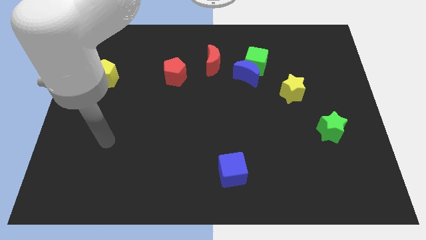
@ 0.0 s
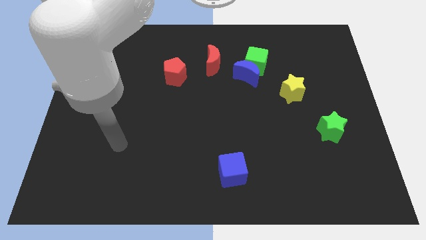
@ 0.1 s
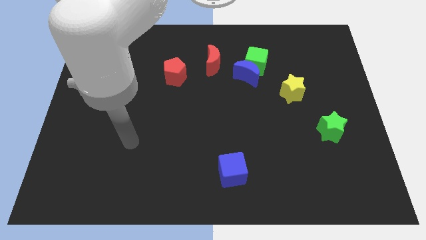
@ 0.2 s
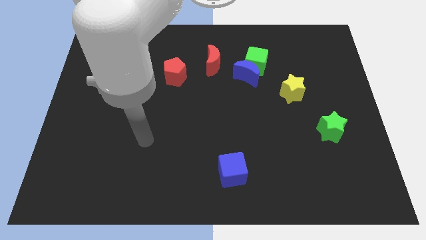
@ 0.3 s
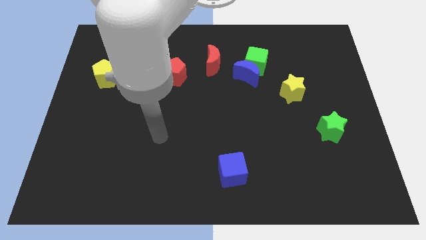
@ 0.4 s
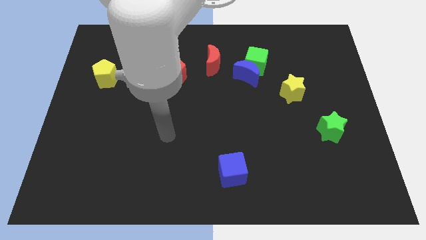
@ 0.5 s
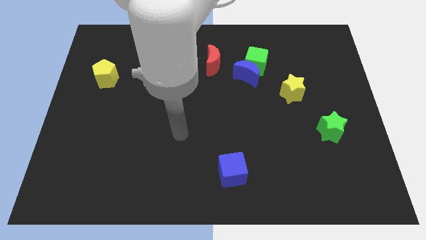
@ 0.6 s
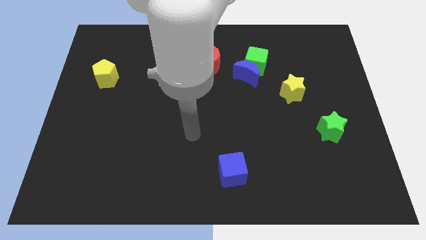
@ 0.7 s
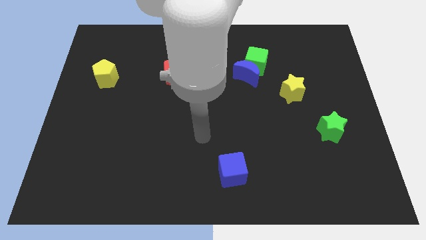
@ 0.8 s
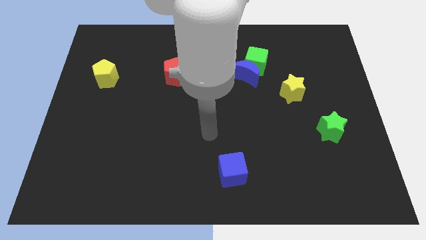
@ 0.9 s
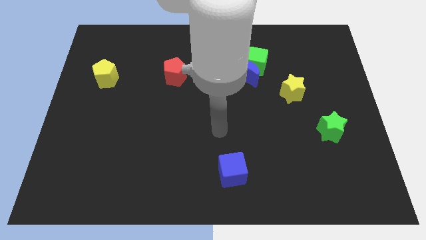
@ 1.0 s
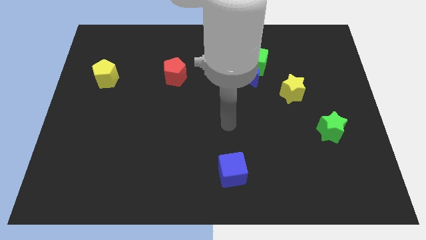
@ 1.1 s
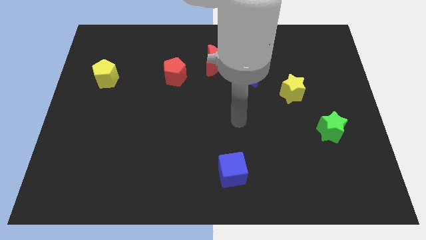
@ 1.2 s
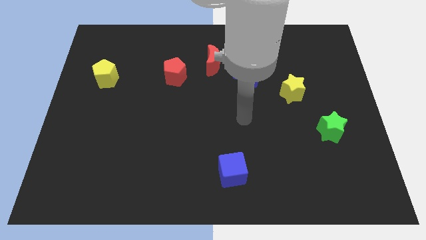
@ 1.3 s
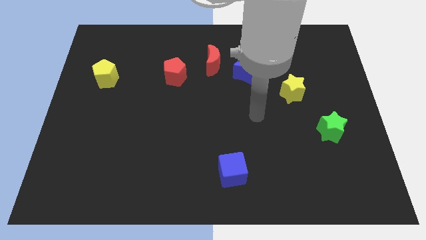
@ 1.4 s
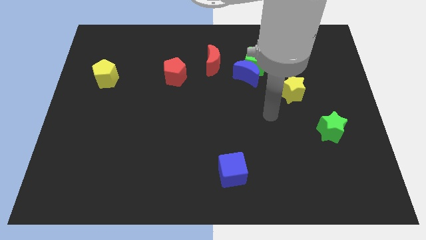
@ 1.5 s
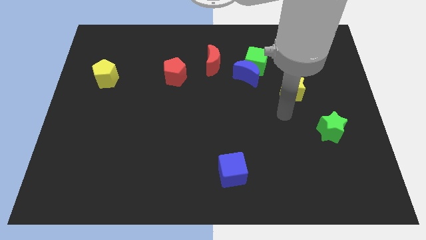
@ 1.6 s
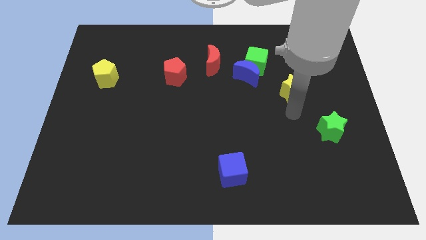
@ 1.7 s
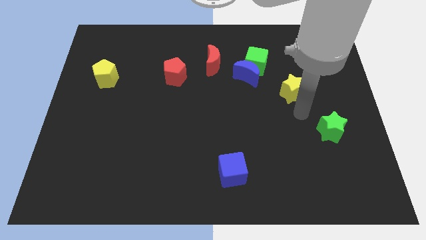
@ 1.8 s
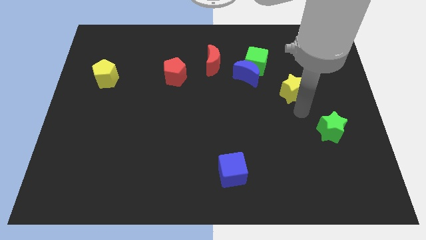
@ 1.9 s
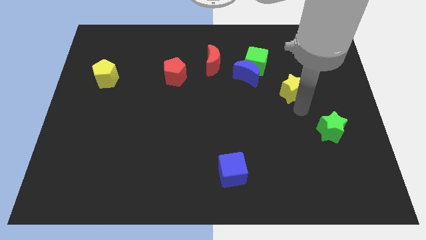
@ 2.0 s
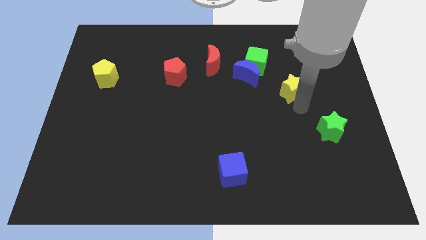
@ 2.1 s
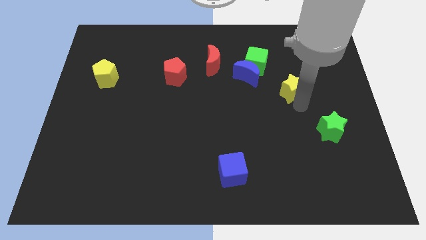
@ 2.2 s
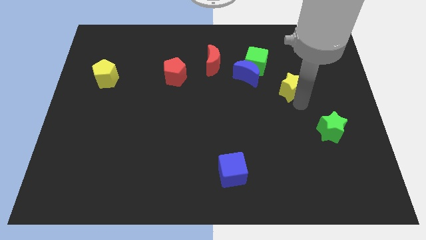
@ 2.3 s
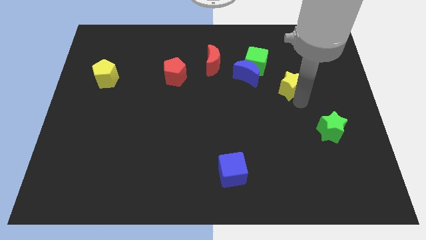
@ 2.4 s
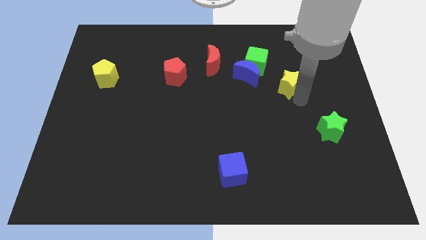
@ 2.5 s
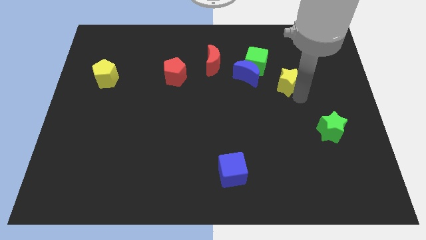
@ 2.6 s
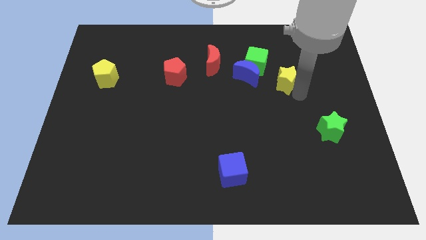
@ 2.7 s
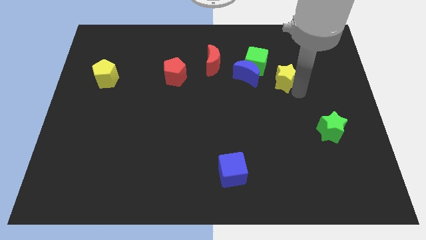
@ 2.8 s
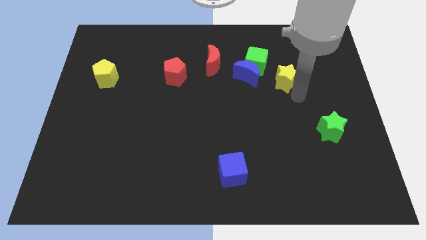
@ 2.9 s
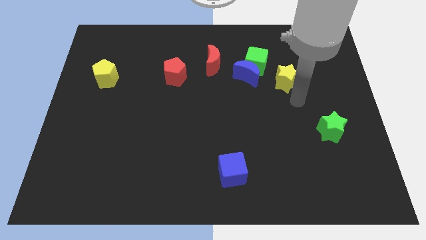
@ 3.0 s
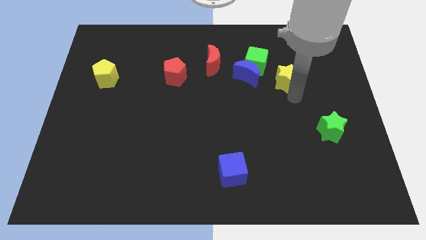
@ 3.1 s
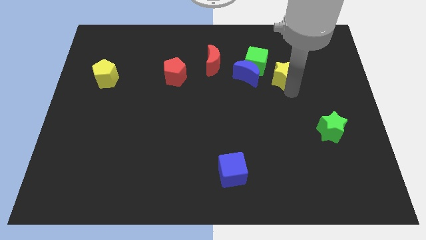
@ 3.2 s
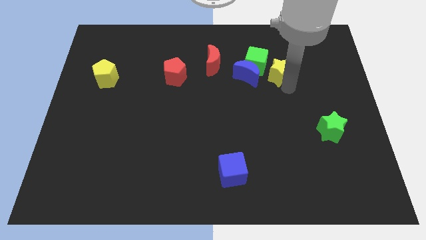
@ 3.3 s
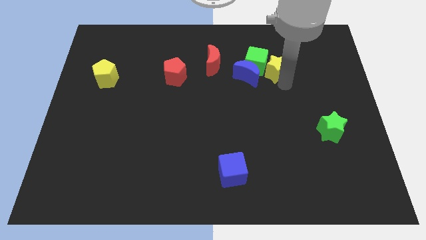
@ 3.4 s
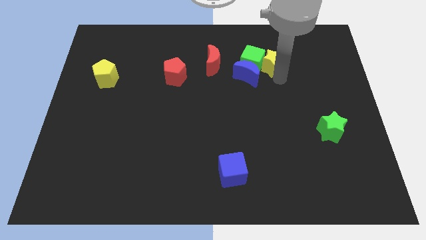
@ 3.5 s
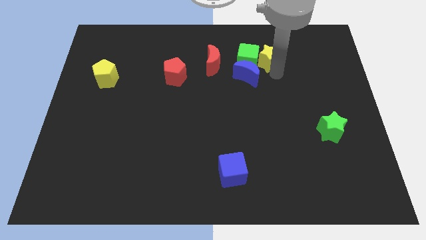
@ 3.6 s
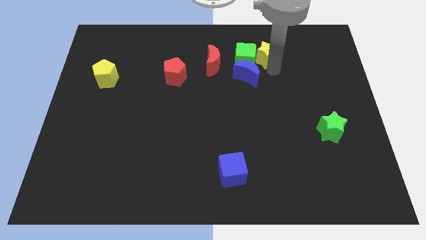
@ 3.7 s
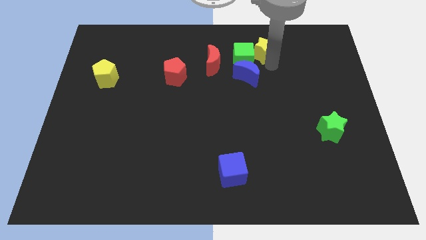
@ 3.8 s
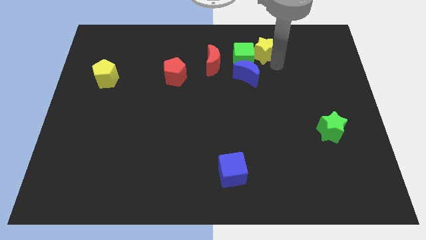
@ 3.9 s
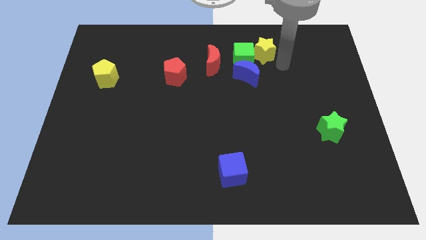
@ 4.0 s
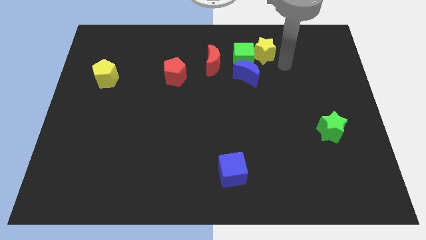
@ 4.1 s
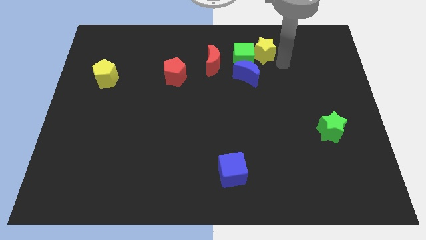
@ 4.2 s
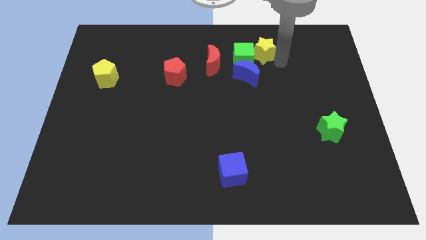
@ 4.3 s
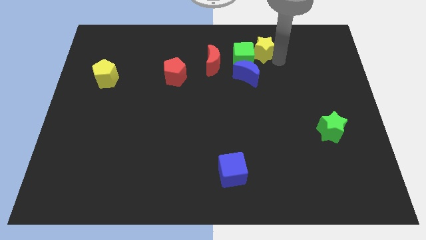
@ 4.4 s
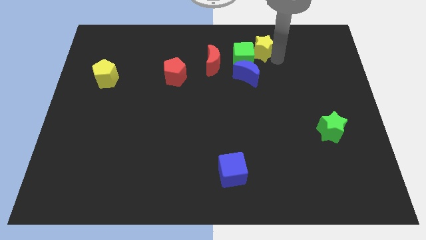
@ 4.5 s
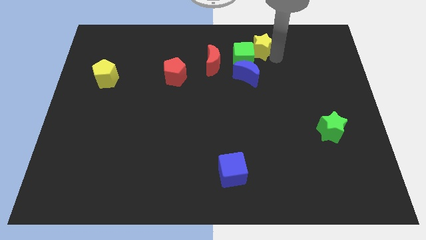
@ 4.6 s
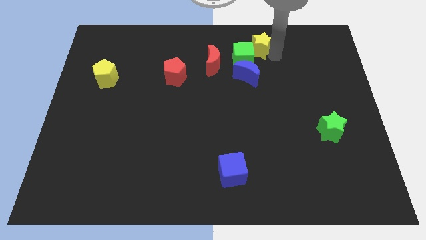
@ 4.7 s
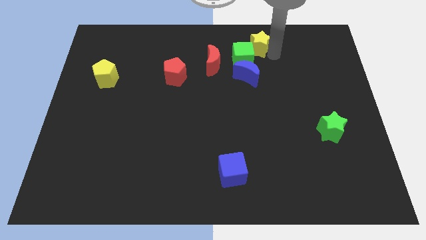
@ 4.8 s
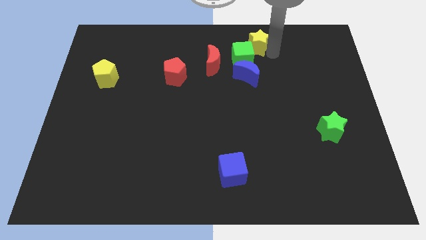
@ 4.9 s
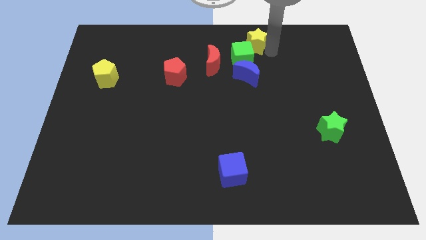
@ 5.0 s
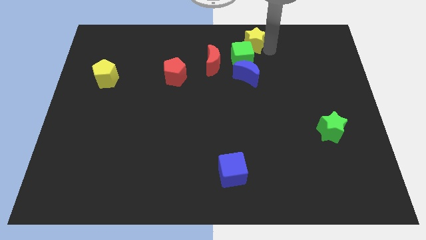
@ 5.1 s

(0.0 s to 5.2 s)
put the yellow star to the top side

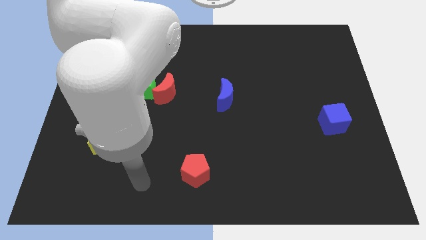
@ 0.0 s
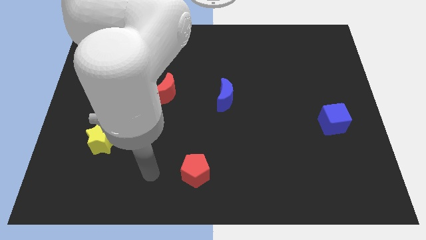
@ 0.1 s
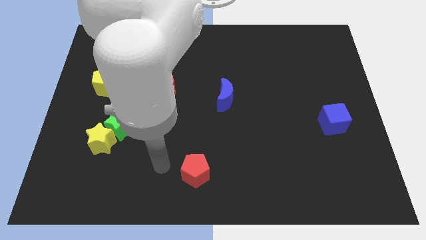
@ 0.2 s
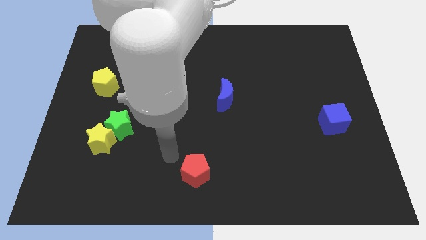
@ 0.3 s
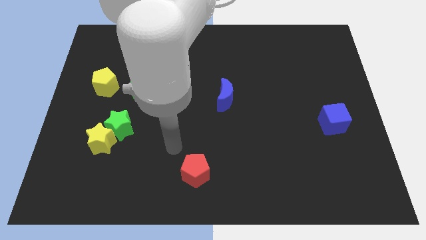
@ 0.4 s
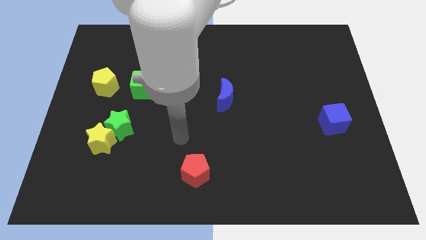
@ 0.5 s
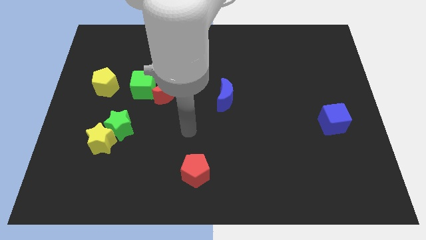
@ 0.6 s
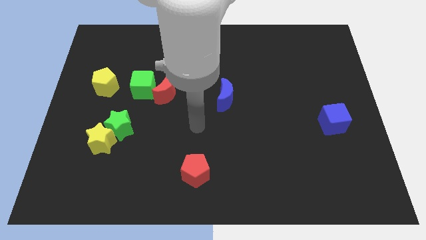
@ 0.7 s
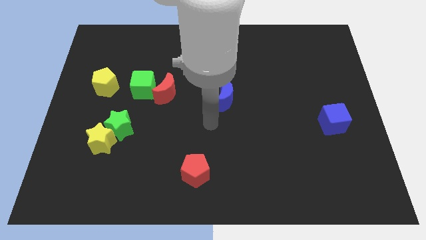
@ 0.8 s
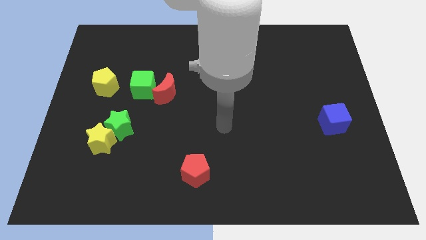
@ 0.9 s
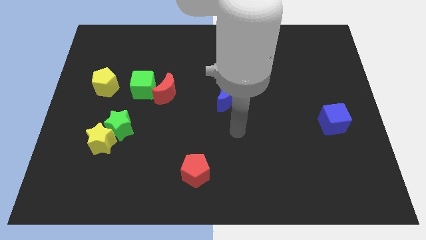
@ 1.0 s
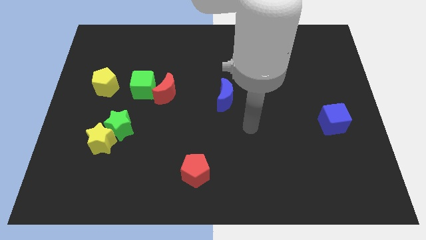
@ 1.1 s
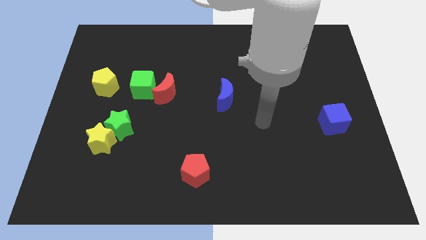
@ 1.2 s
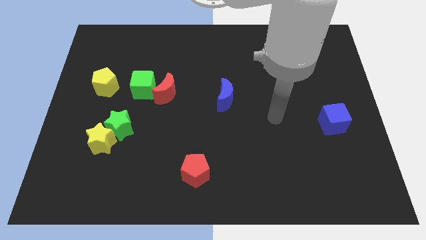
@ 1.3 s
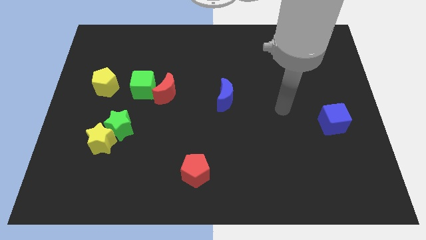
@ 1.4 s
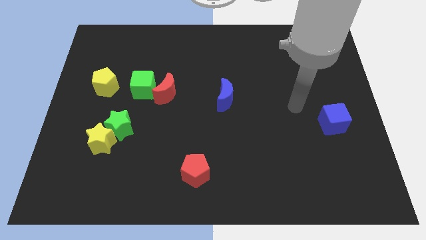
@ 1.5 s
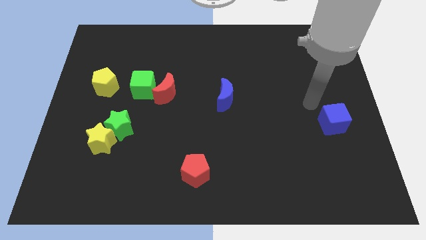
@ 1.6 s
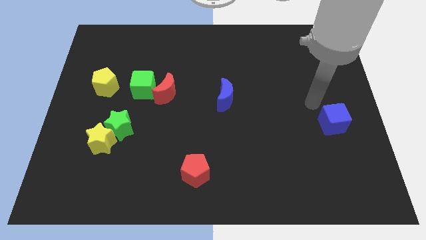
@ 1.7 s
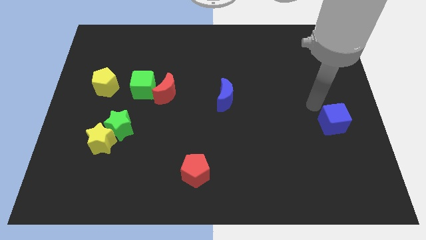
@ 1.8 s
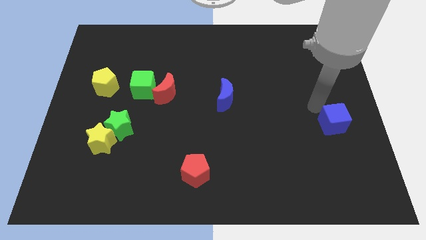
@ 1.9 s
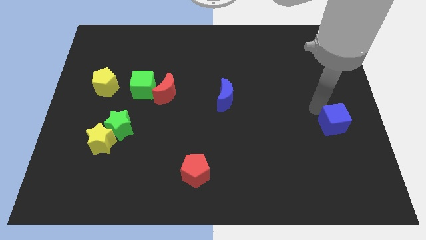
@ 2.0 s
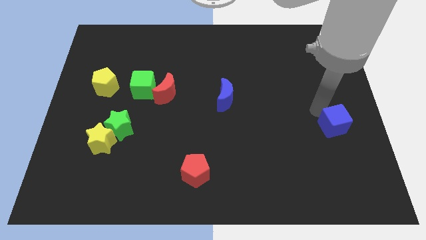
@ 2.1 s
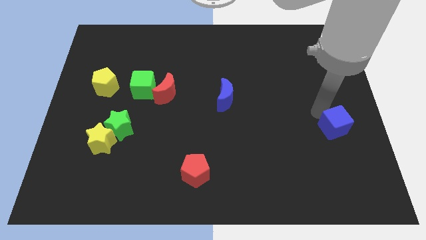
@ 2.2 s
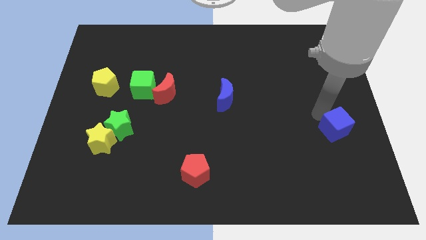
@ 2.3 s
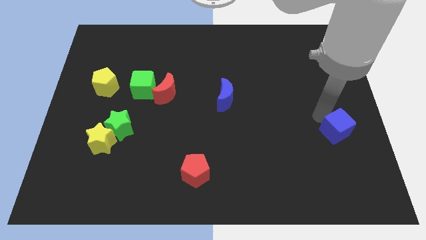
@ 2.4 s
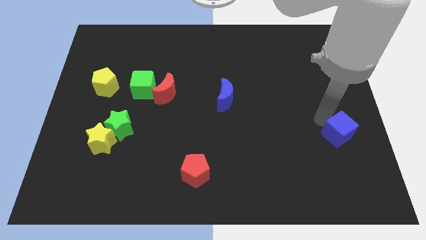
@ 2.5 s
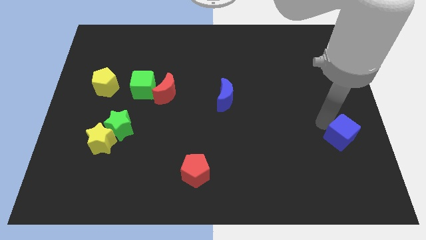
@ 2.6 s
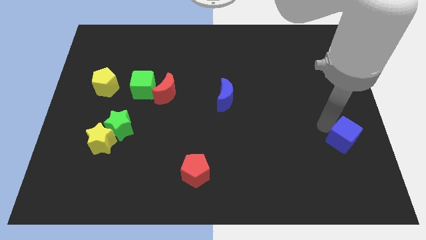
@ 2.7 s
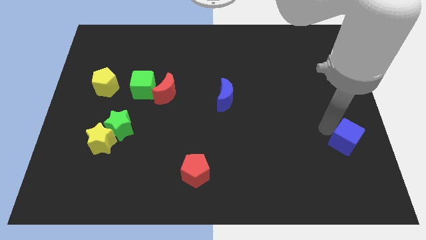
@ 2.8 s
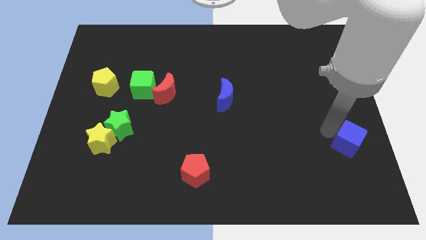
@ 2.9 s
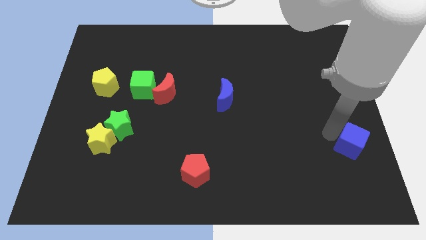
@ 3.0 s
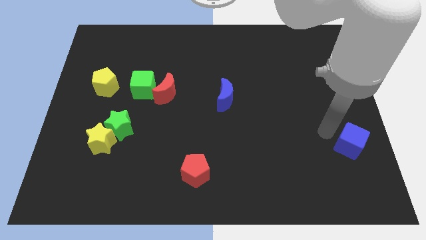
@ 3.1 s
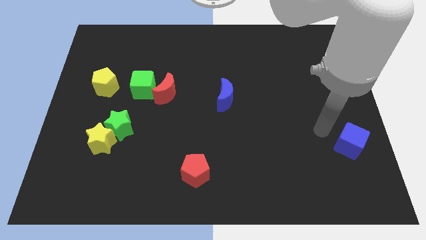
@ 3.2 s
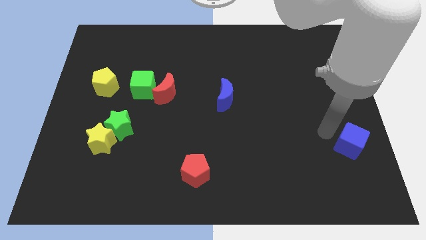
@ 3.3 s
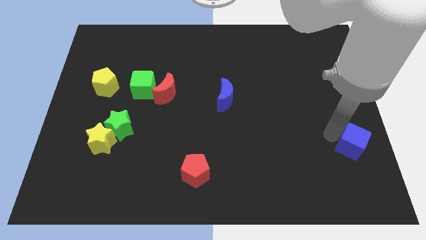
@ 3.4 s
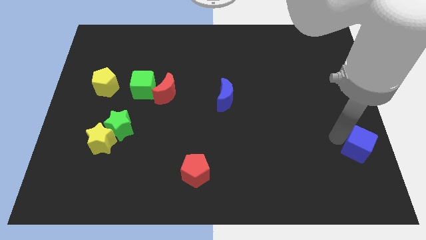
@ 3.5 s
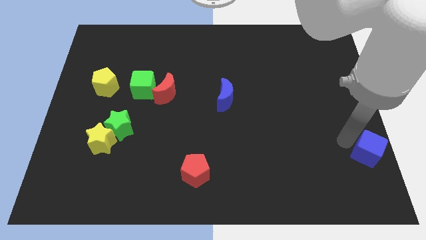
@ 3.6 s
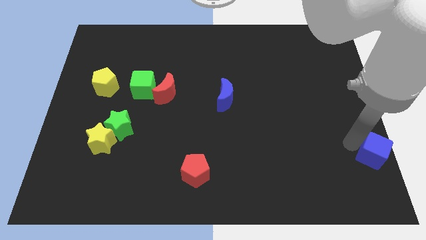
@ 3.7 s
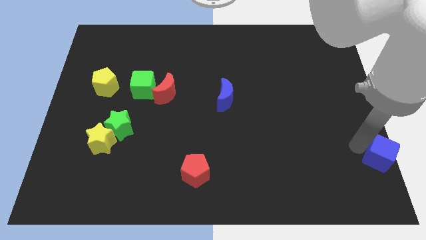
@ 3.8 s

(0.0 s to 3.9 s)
push the blue cube to the lower right corner
